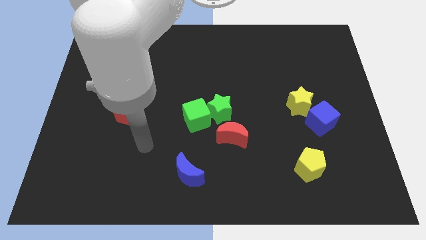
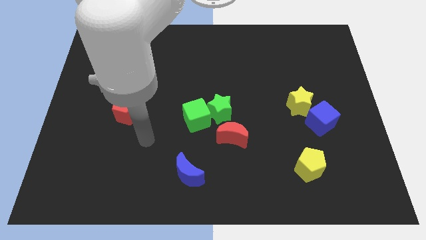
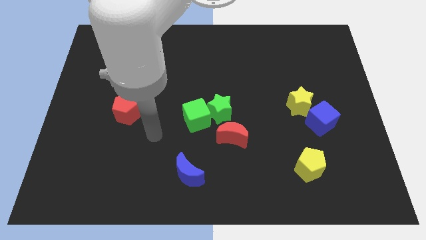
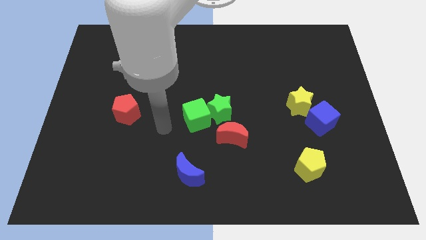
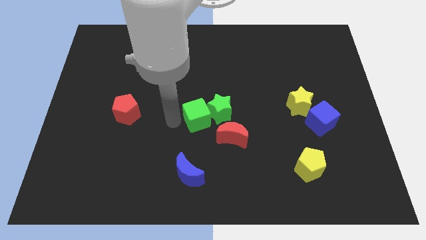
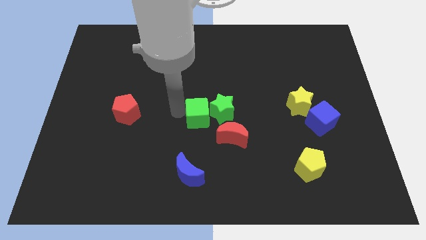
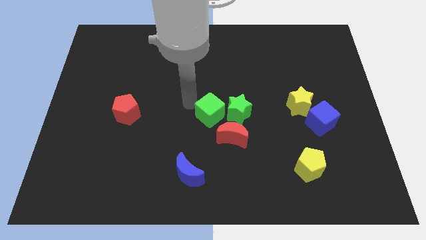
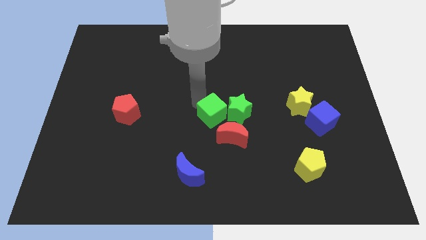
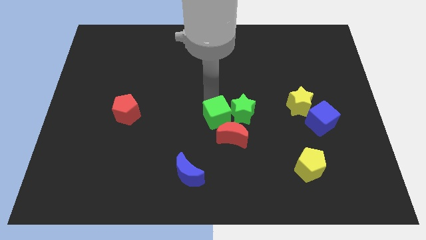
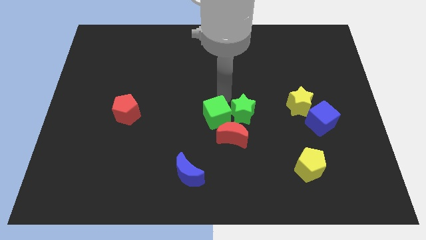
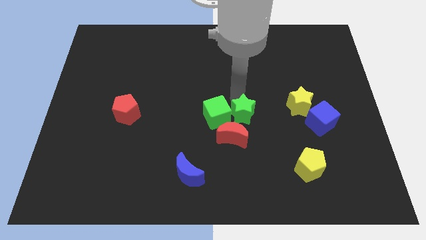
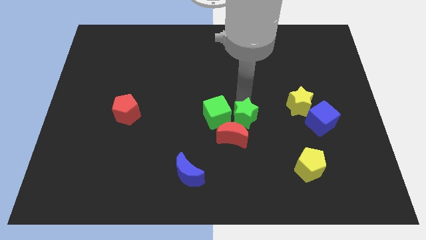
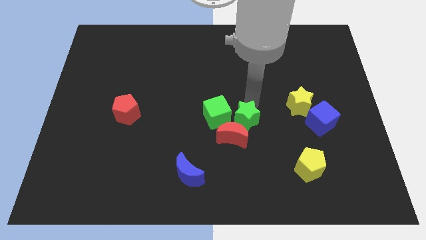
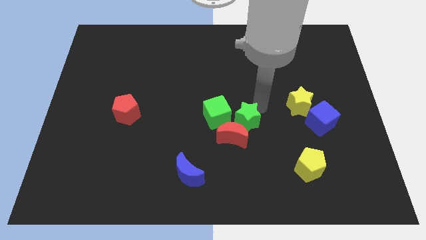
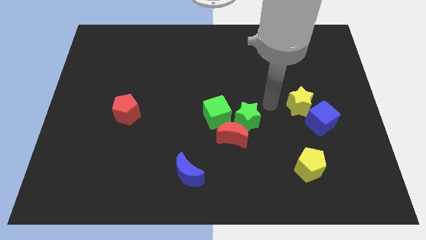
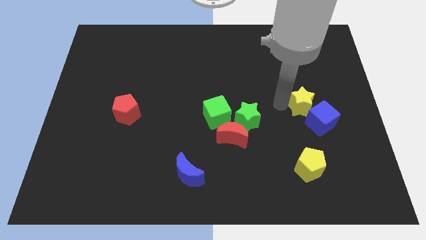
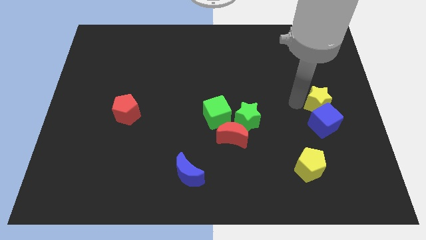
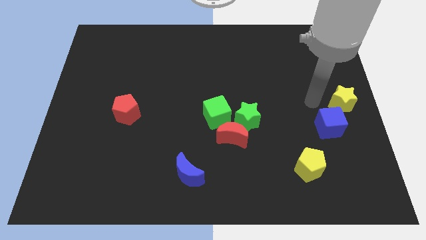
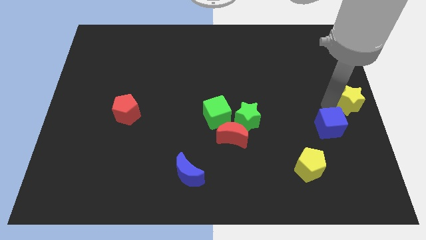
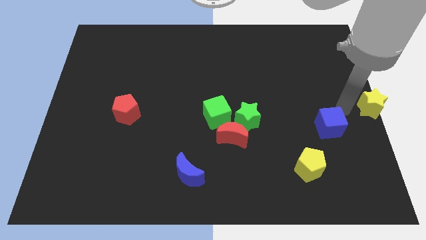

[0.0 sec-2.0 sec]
pull the blue cube apart from the yellow star

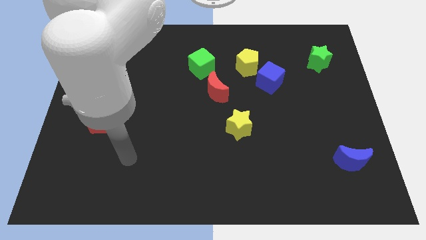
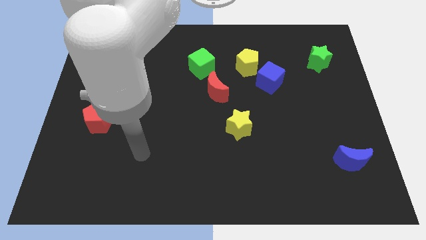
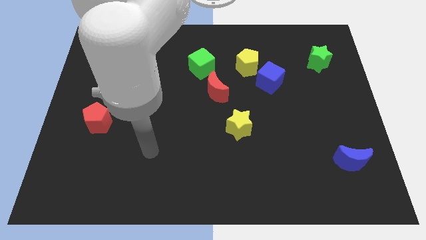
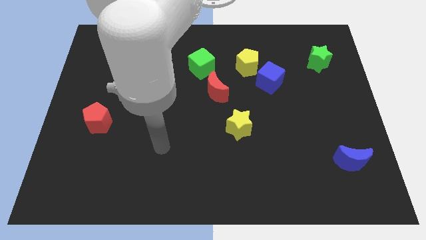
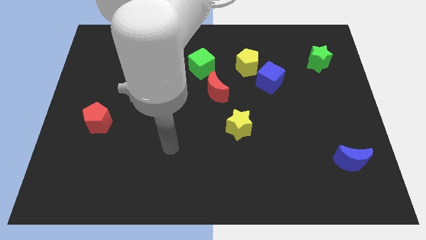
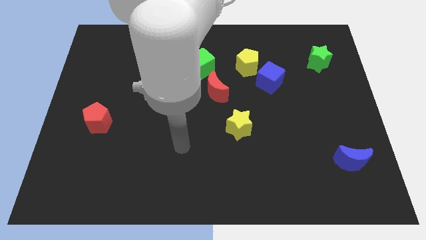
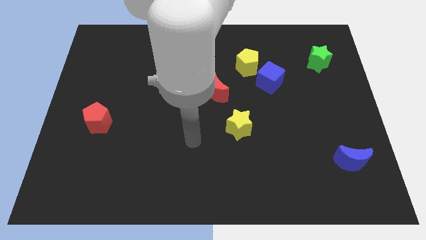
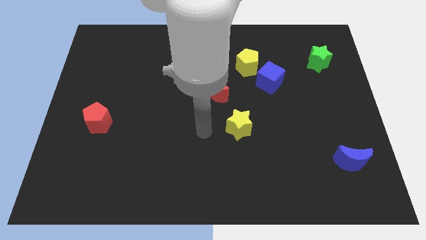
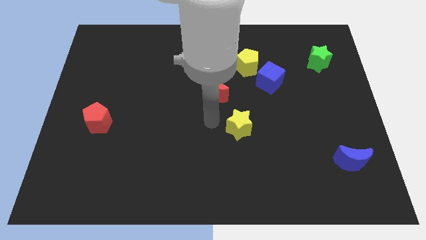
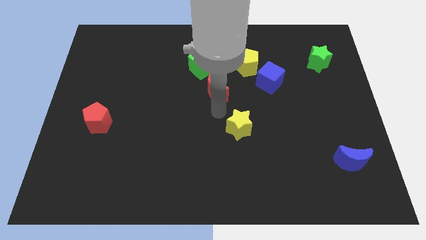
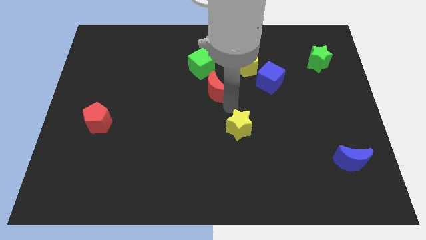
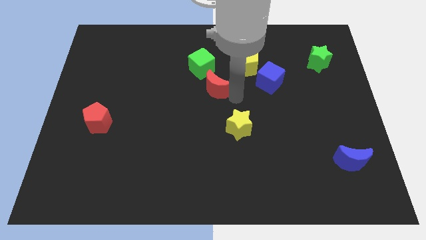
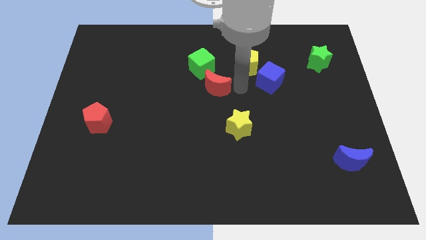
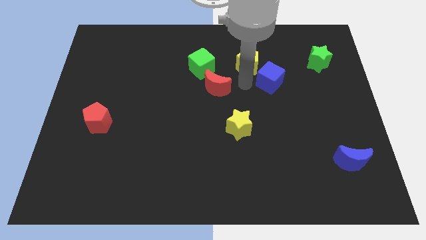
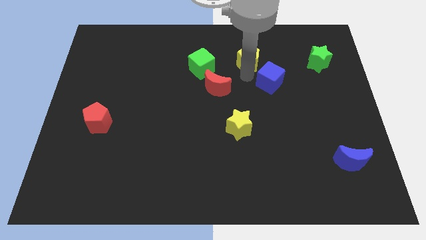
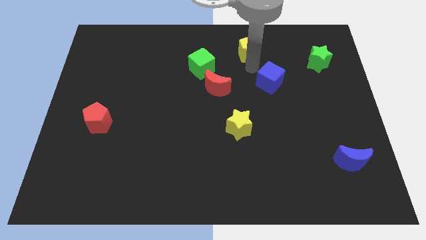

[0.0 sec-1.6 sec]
move the blue cube away from the yellow pentagon

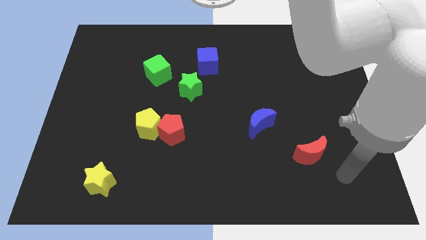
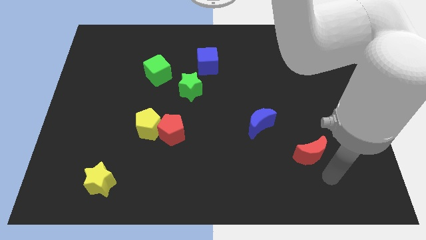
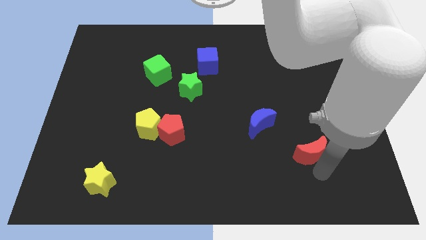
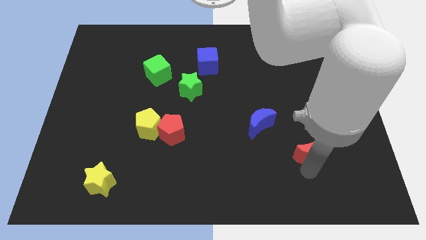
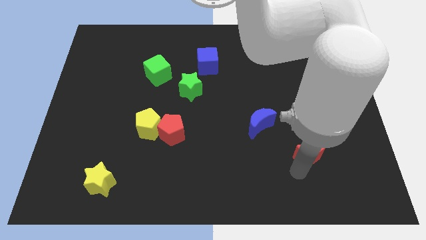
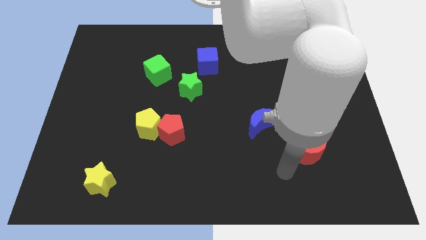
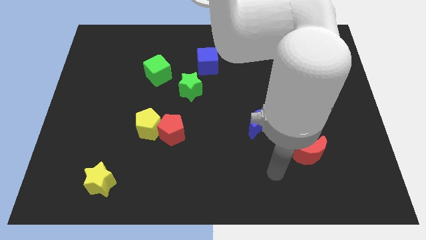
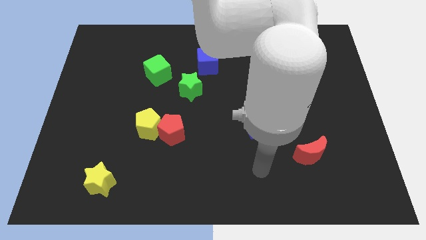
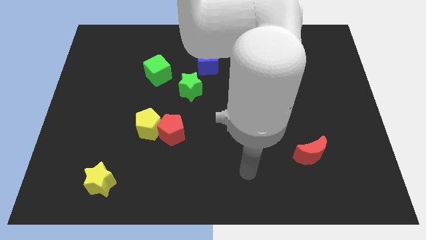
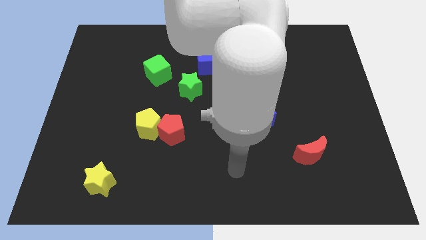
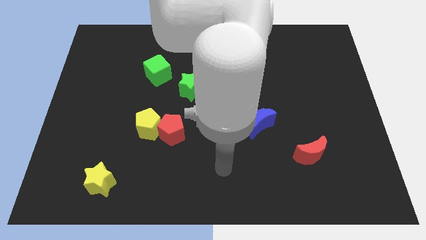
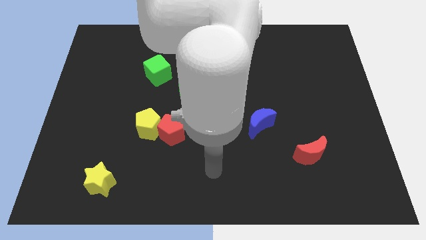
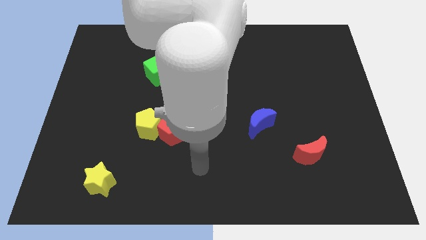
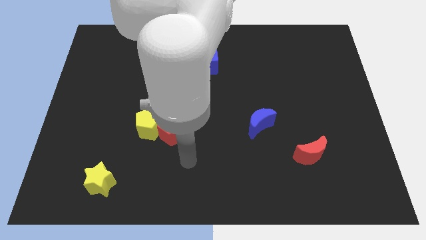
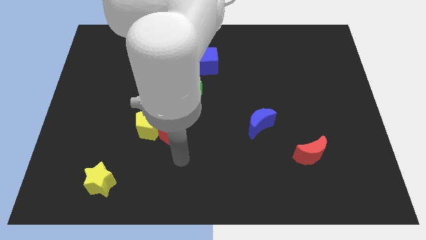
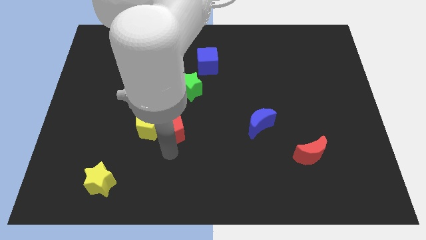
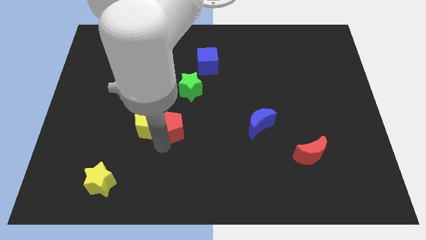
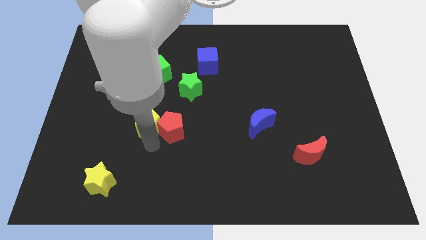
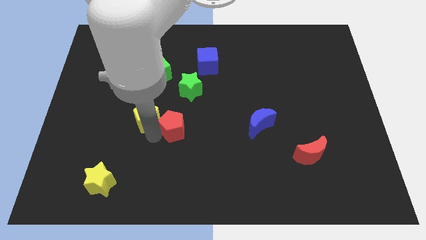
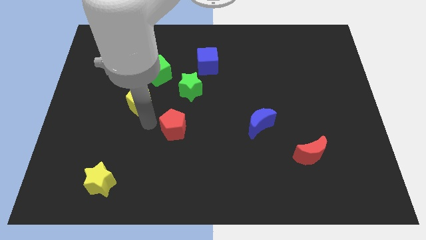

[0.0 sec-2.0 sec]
separate the red pentagon from the yellow pentagon

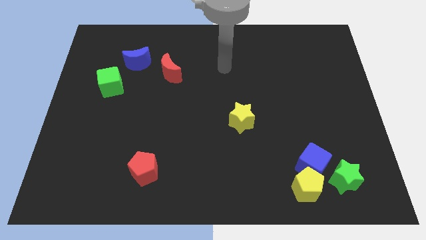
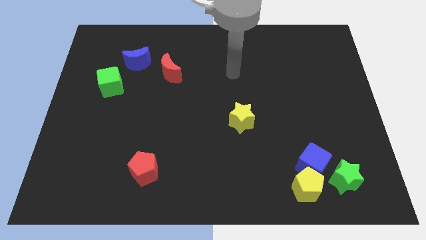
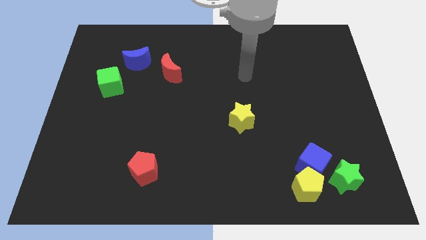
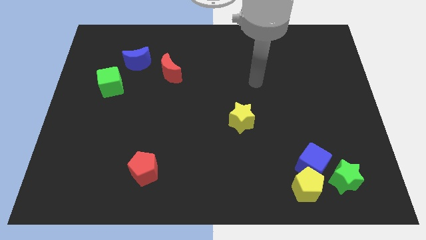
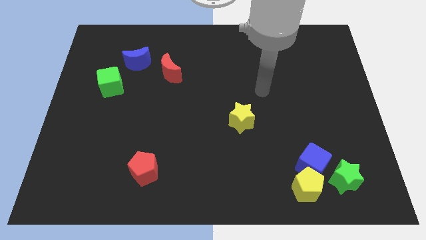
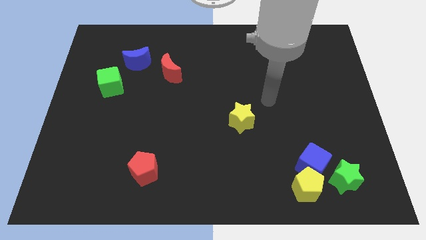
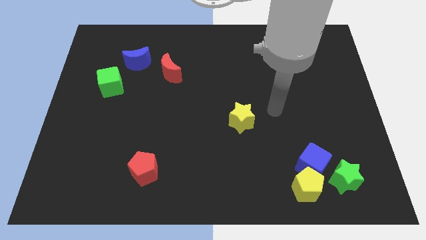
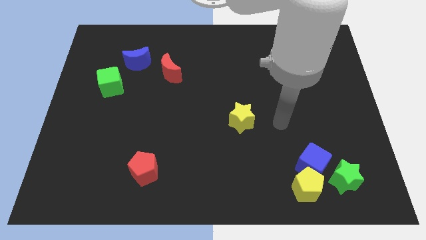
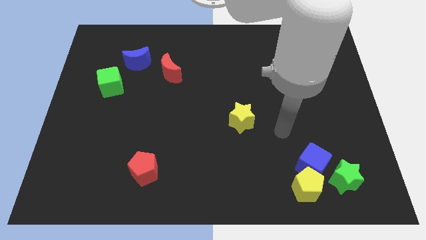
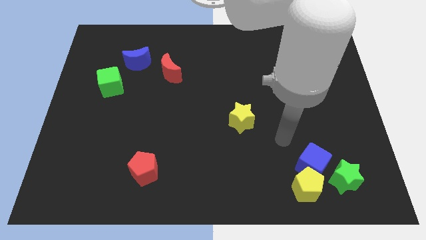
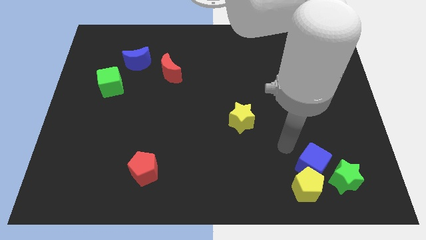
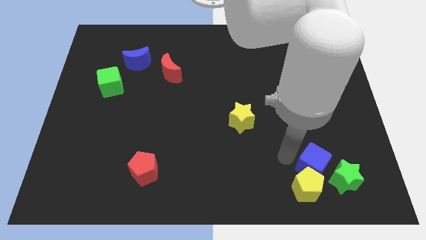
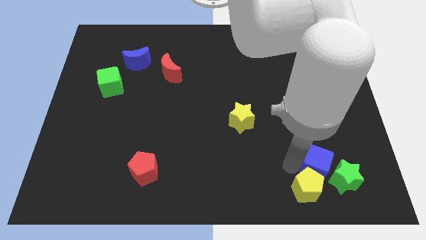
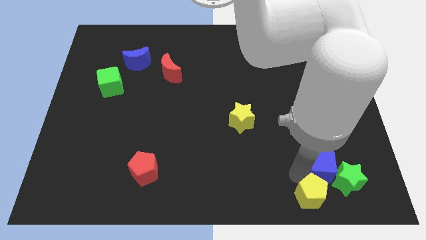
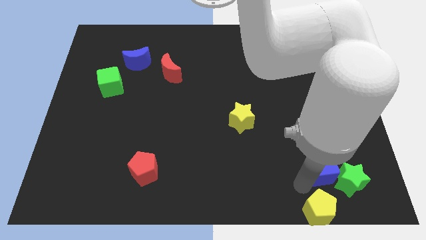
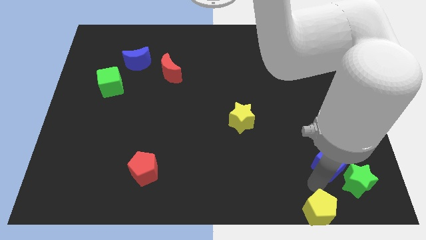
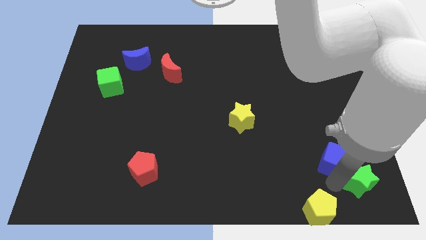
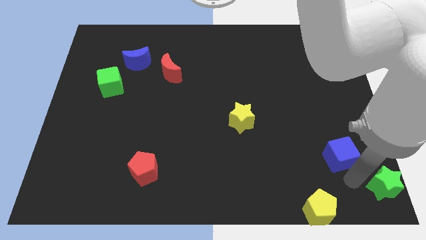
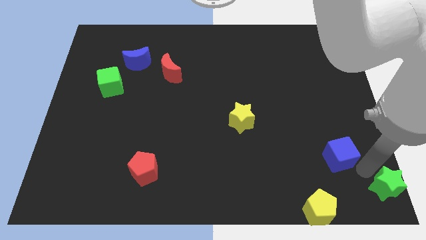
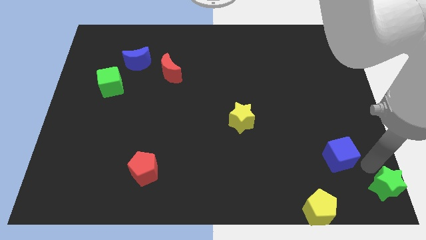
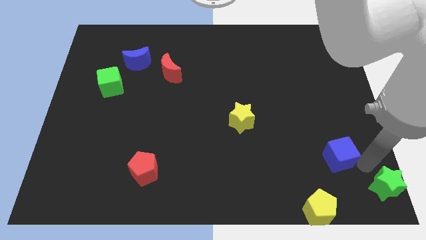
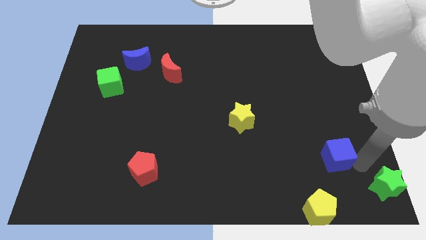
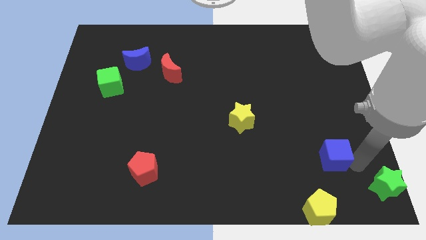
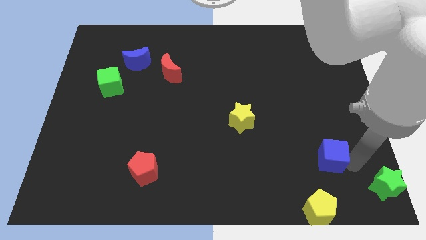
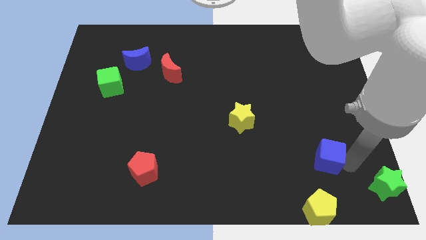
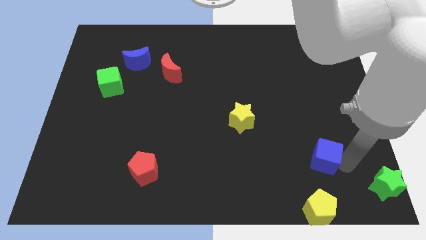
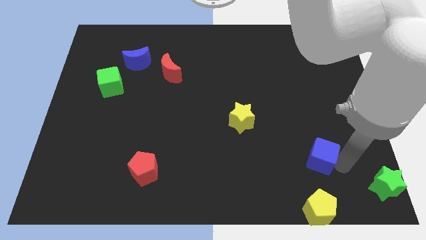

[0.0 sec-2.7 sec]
separate the blue cube from the yellow pentagon and green star

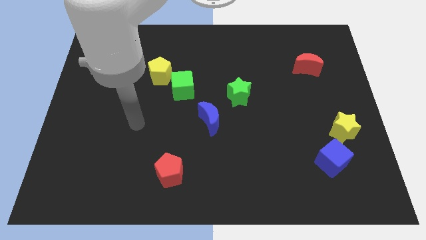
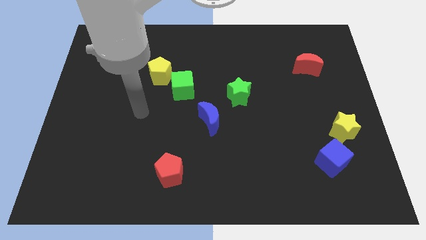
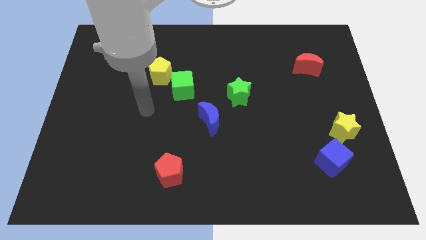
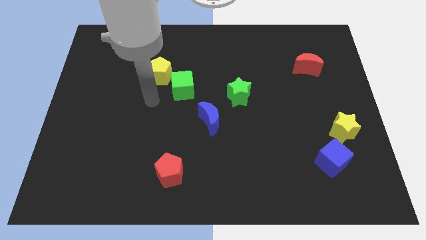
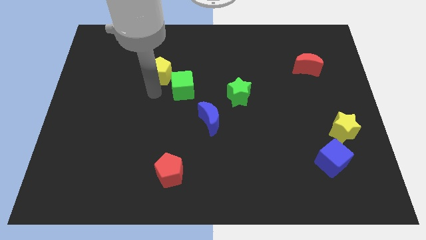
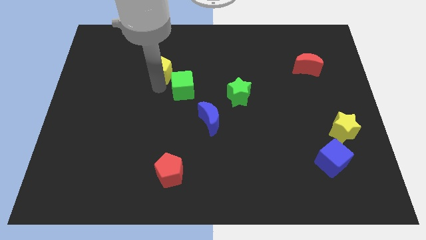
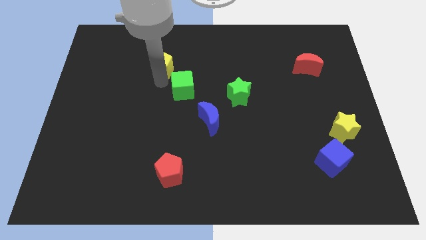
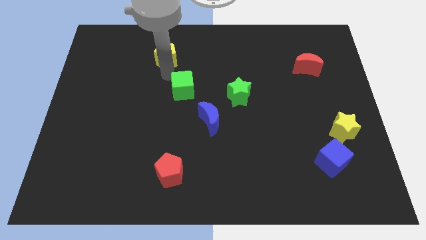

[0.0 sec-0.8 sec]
pull the green cube apart from the yellow pentagon

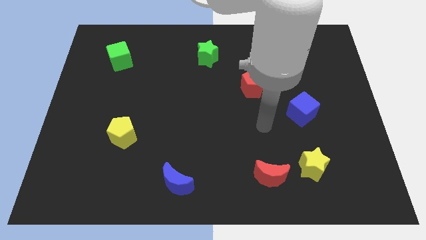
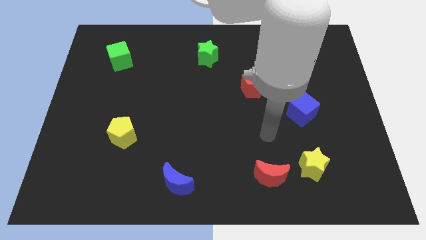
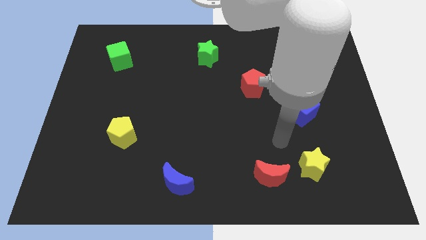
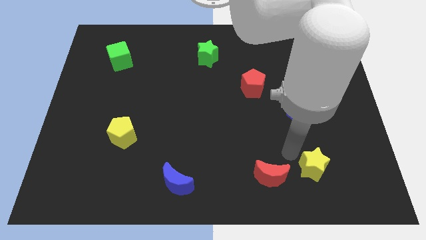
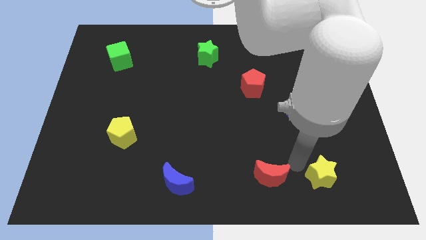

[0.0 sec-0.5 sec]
separate the red moon from the yellow star
